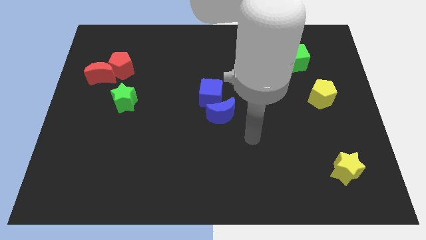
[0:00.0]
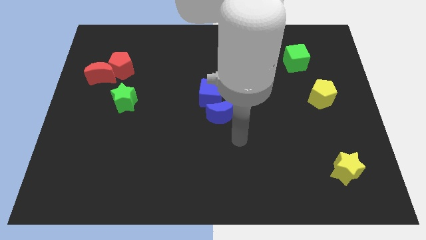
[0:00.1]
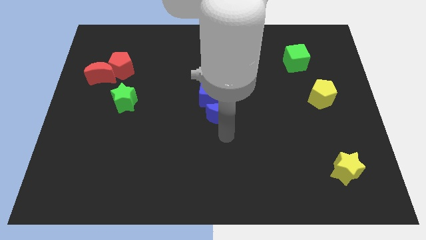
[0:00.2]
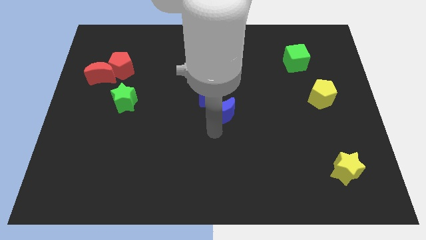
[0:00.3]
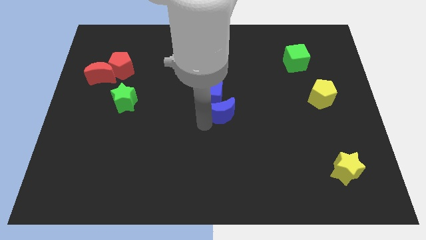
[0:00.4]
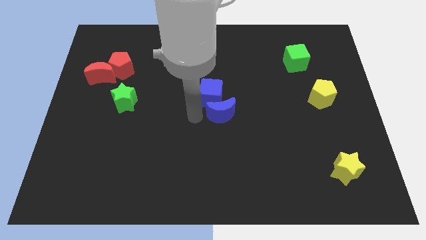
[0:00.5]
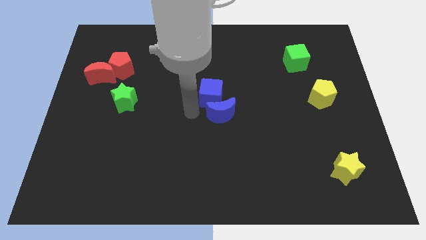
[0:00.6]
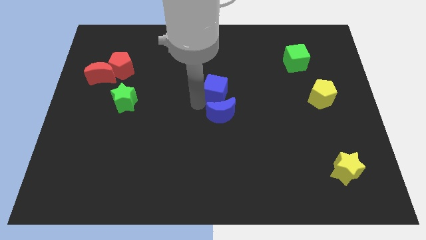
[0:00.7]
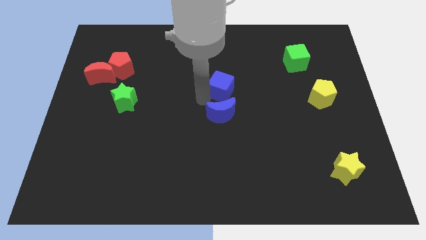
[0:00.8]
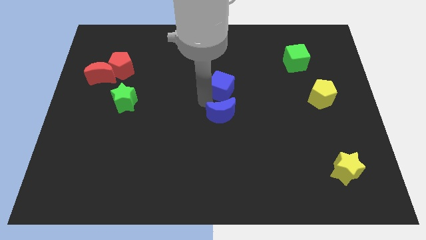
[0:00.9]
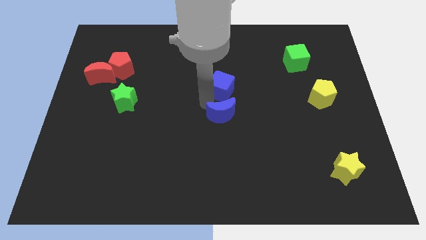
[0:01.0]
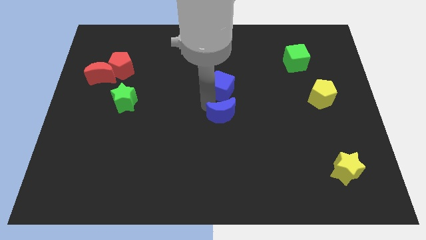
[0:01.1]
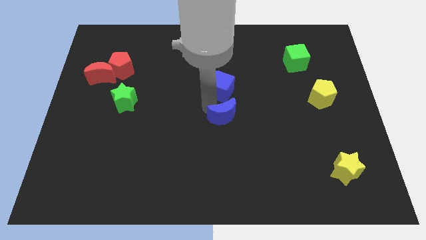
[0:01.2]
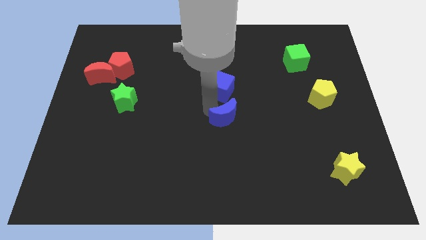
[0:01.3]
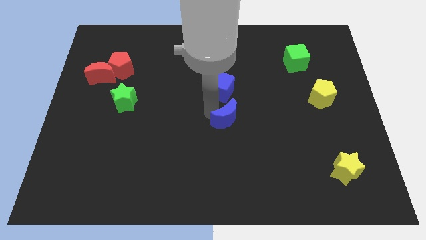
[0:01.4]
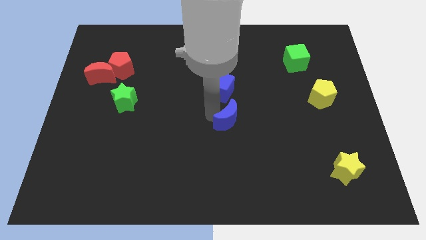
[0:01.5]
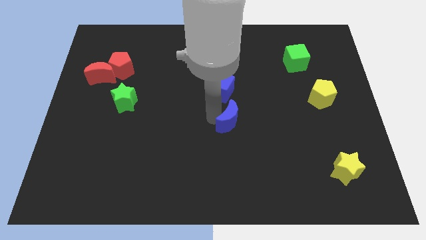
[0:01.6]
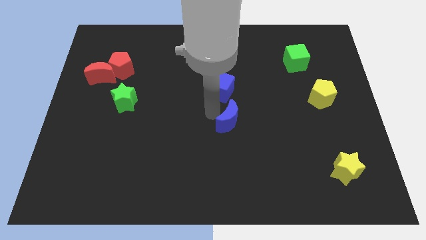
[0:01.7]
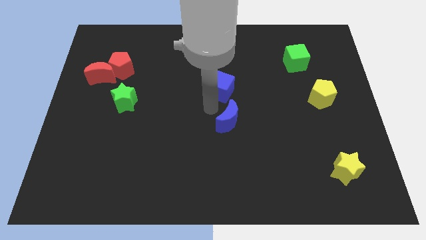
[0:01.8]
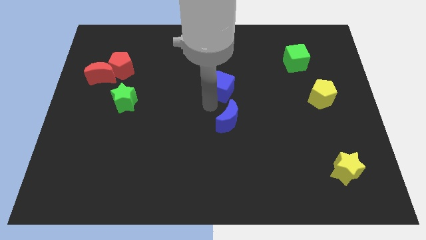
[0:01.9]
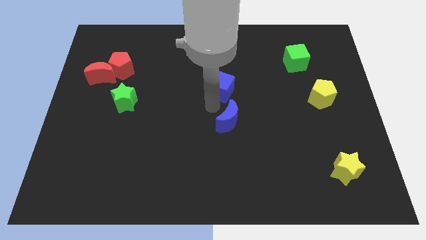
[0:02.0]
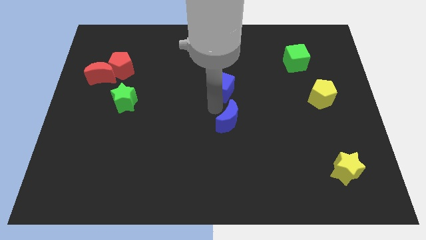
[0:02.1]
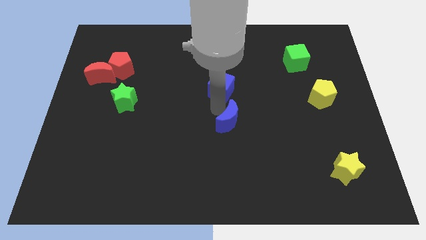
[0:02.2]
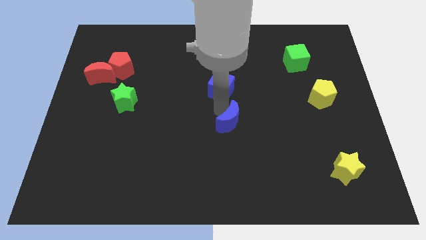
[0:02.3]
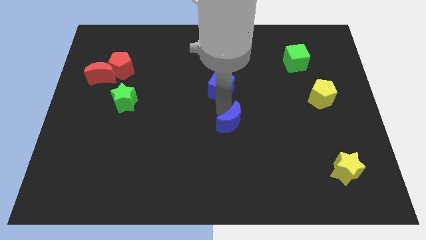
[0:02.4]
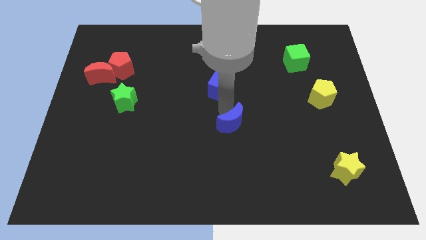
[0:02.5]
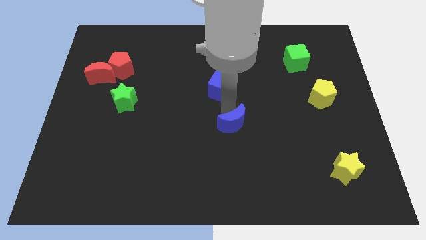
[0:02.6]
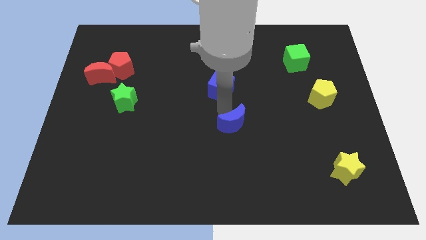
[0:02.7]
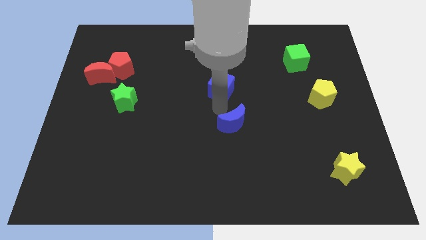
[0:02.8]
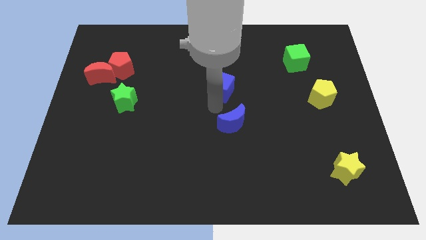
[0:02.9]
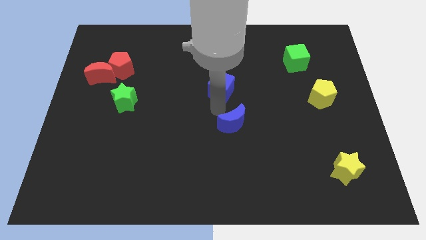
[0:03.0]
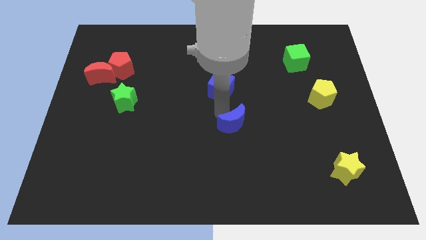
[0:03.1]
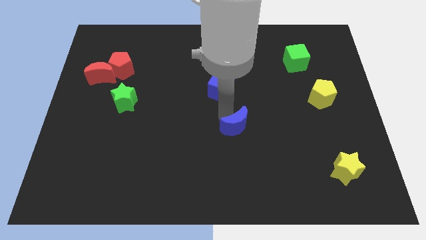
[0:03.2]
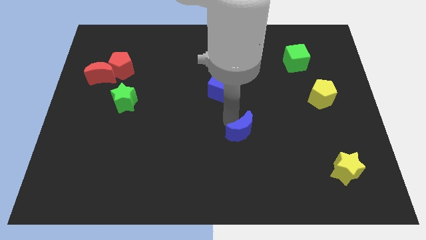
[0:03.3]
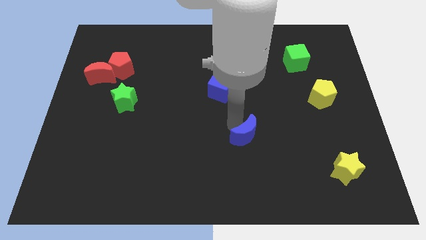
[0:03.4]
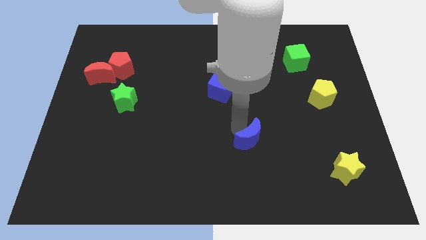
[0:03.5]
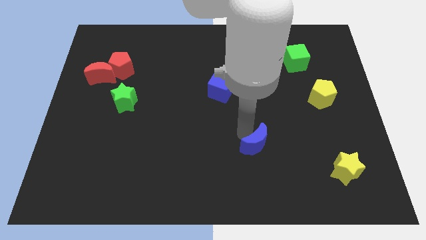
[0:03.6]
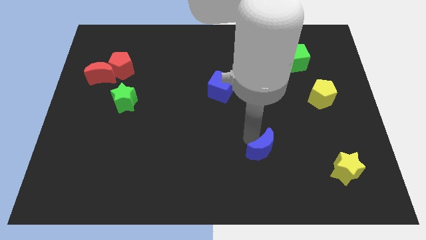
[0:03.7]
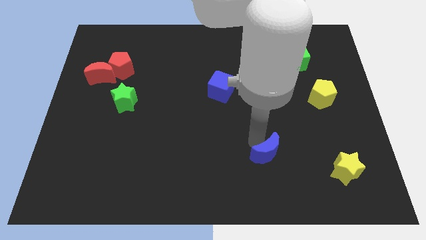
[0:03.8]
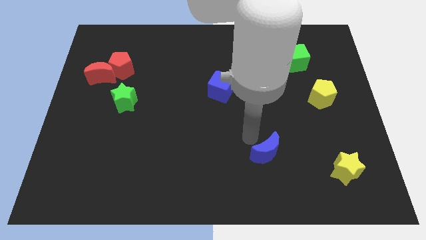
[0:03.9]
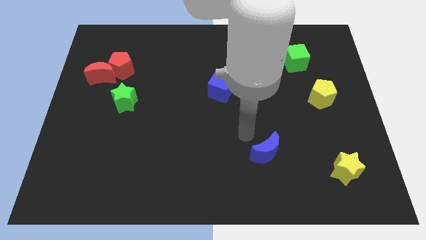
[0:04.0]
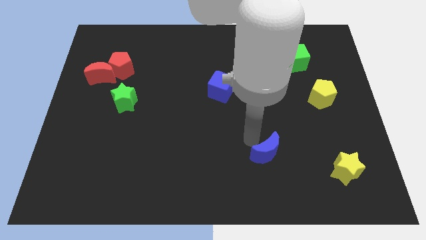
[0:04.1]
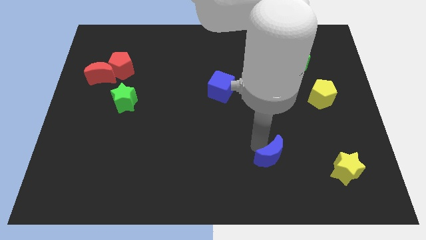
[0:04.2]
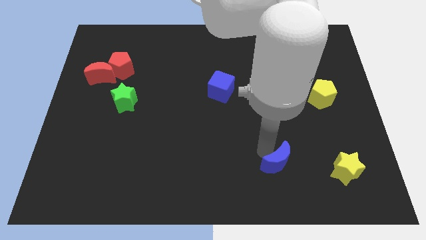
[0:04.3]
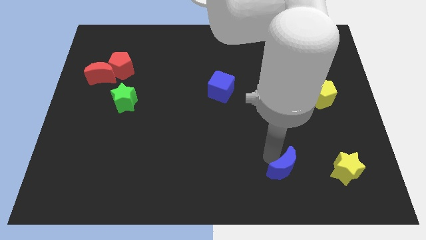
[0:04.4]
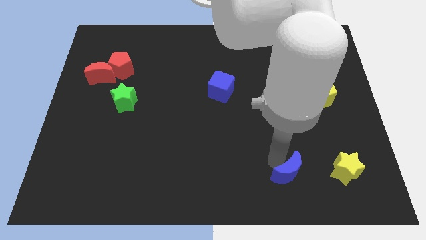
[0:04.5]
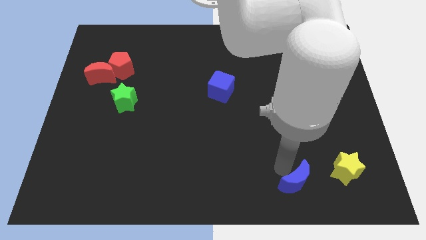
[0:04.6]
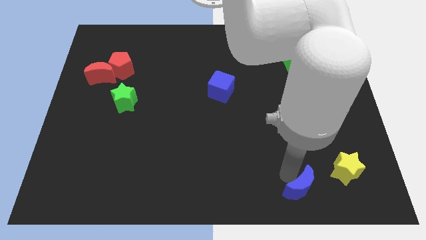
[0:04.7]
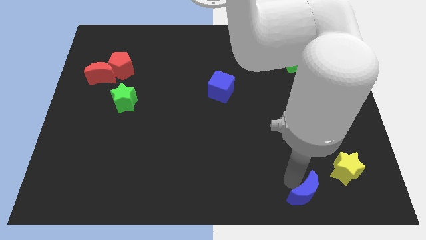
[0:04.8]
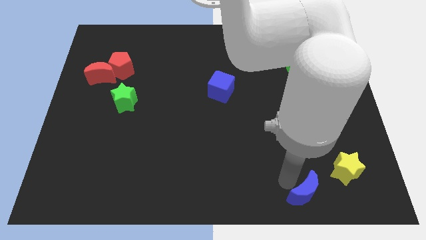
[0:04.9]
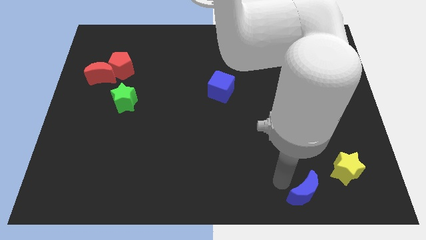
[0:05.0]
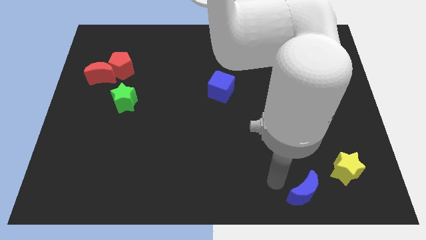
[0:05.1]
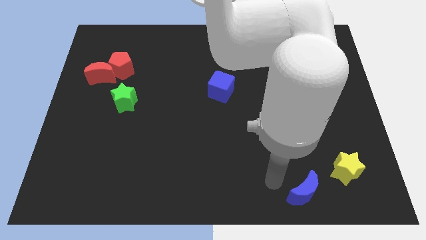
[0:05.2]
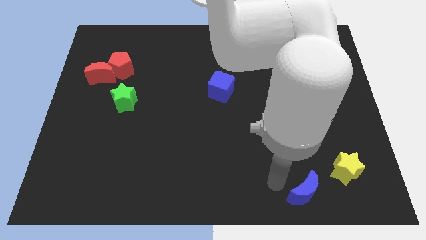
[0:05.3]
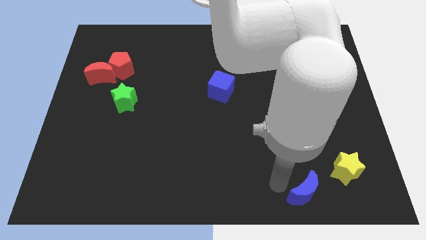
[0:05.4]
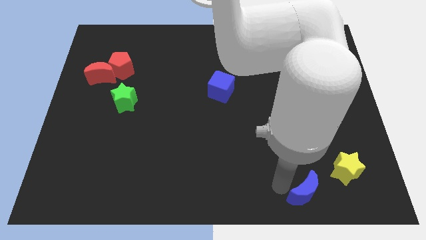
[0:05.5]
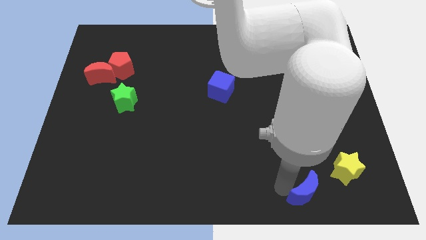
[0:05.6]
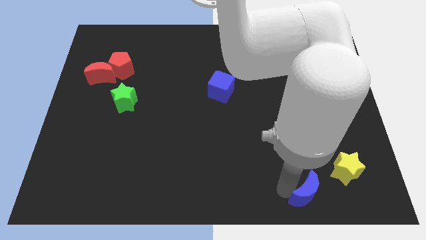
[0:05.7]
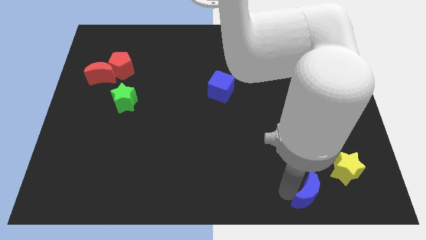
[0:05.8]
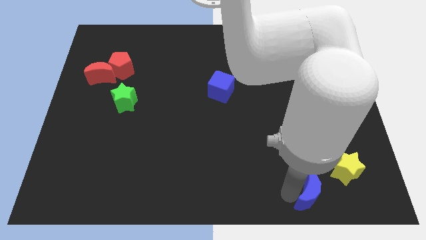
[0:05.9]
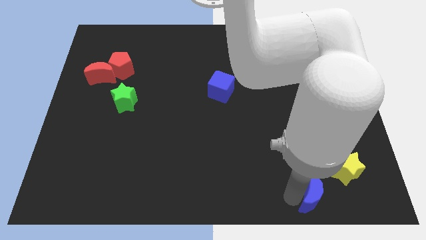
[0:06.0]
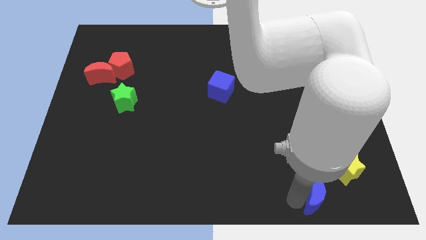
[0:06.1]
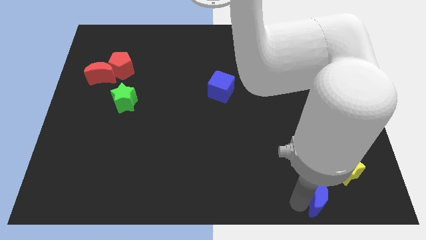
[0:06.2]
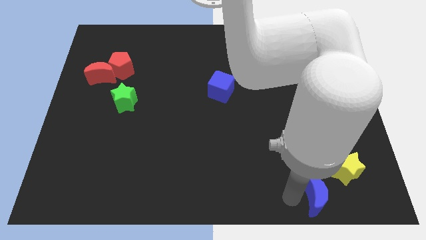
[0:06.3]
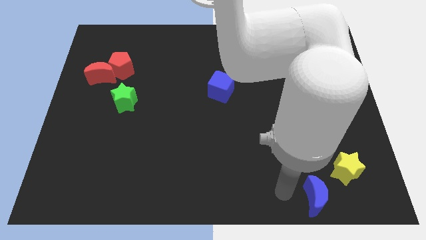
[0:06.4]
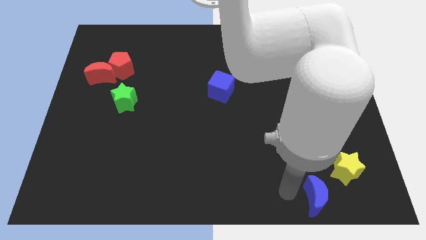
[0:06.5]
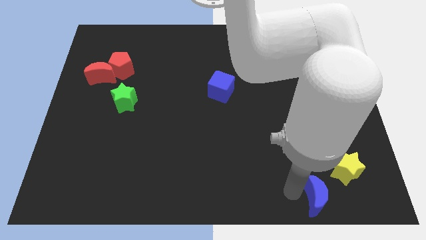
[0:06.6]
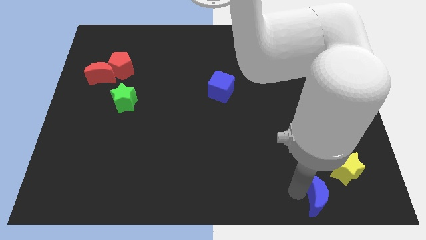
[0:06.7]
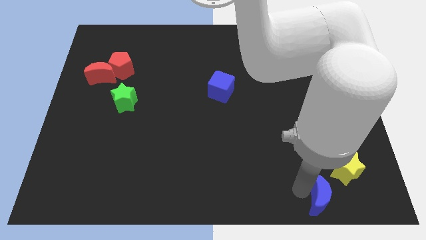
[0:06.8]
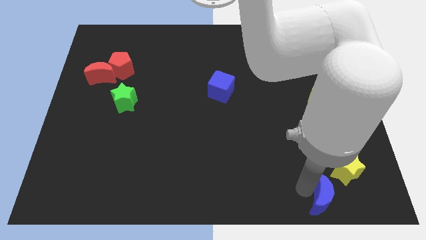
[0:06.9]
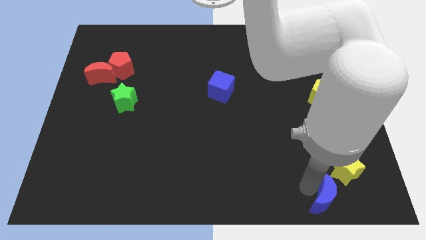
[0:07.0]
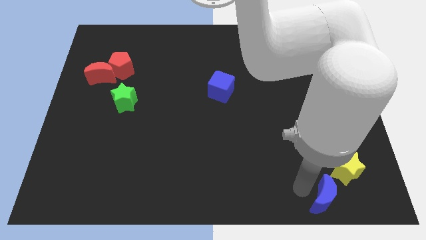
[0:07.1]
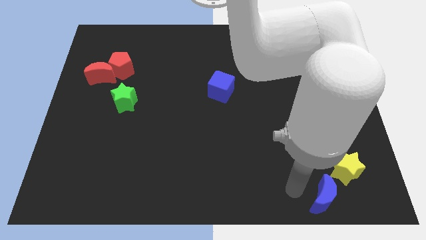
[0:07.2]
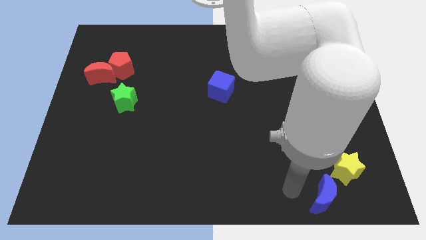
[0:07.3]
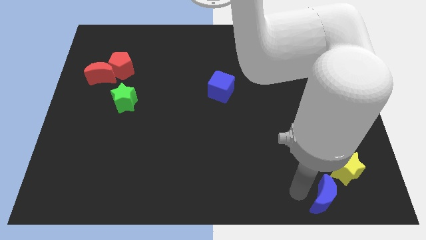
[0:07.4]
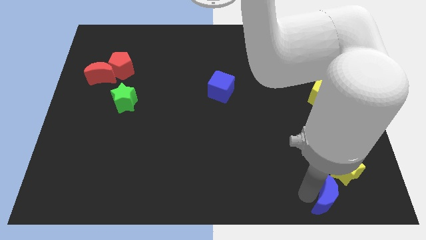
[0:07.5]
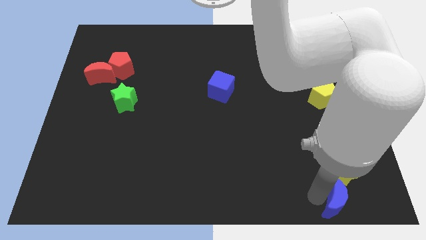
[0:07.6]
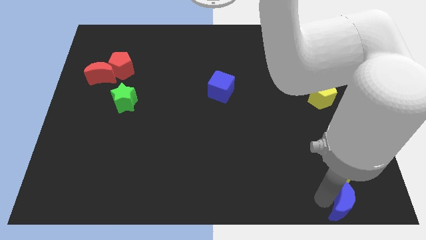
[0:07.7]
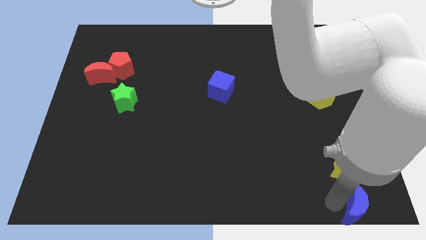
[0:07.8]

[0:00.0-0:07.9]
slide the blue moon to the bottom right corner
